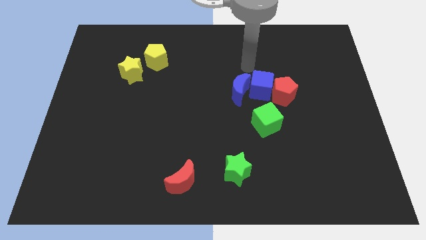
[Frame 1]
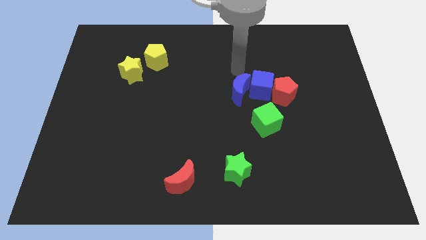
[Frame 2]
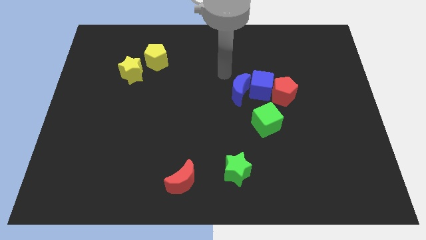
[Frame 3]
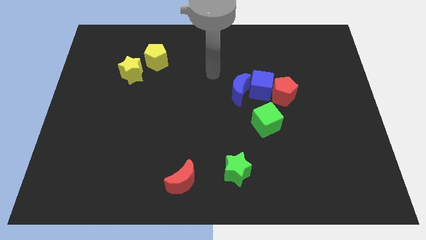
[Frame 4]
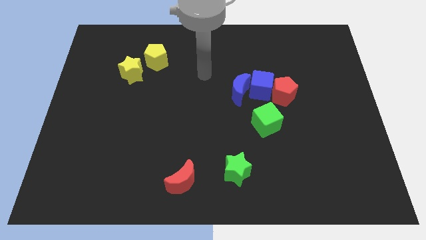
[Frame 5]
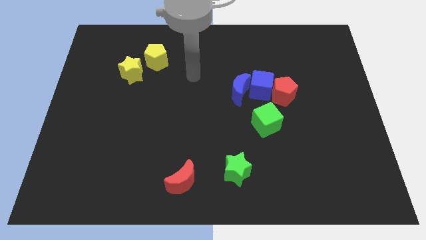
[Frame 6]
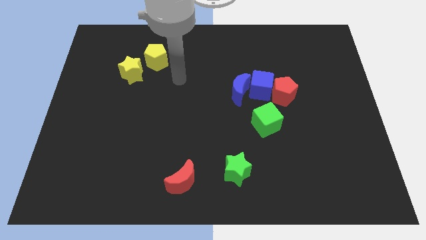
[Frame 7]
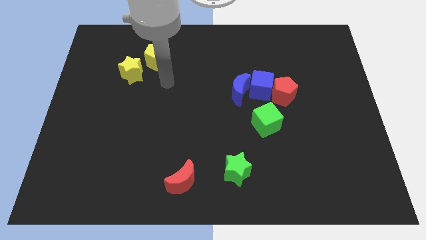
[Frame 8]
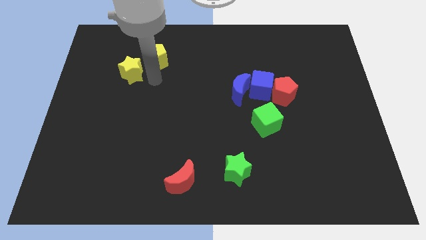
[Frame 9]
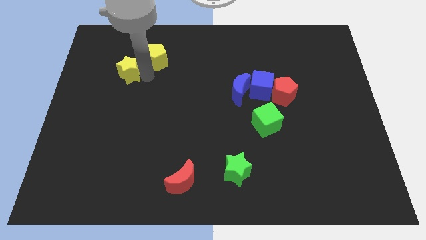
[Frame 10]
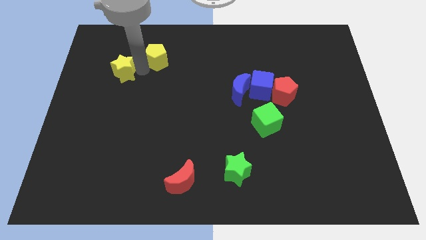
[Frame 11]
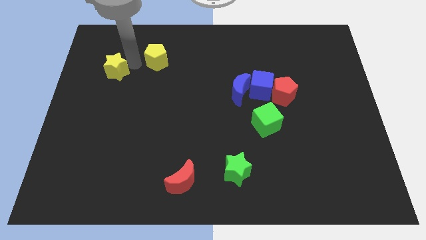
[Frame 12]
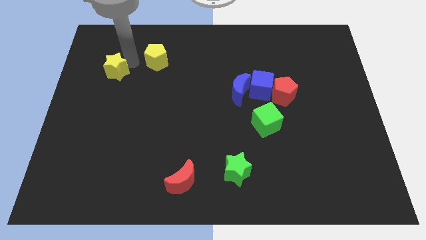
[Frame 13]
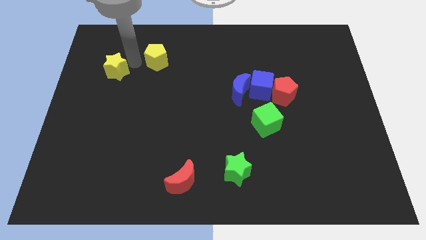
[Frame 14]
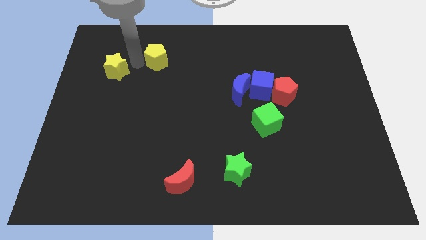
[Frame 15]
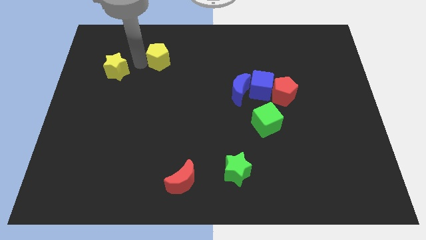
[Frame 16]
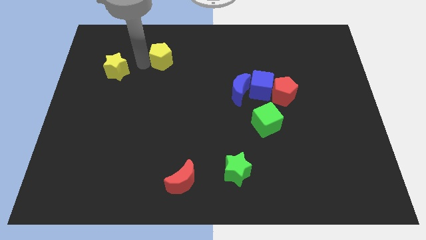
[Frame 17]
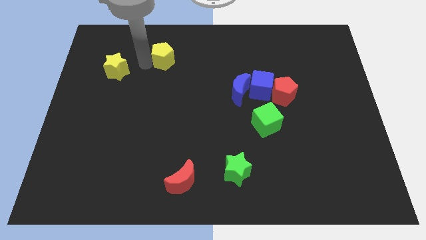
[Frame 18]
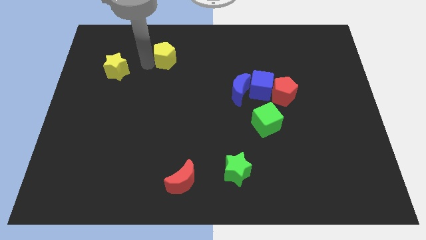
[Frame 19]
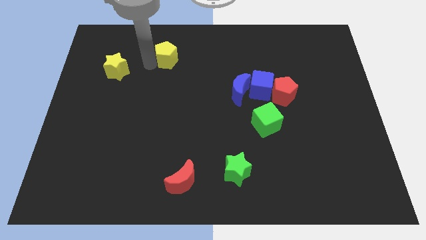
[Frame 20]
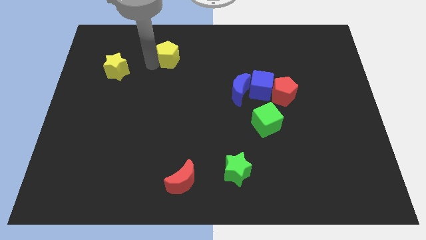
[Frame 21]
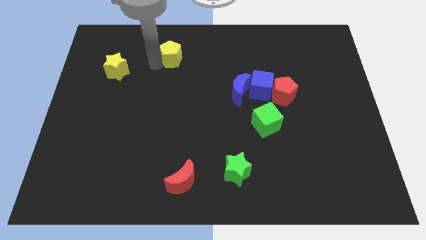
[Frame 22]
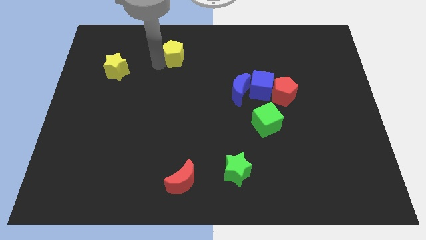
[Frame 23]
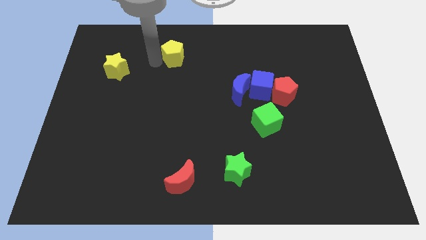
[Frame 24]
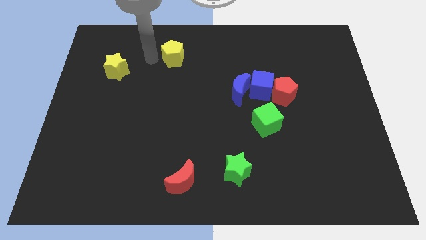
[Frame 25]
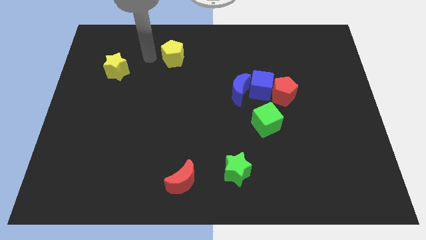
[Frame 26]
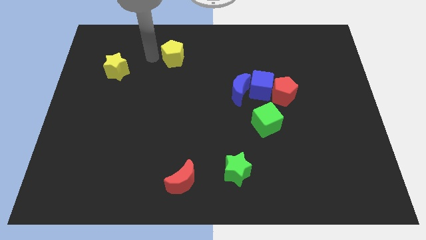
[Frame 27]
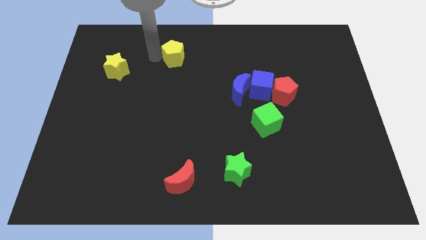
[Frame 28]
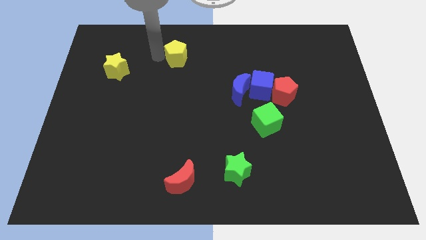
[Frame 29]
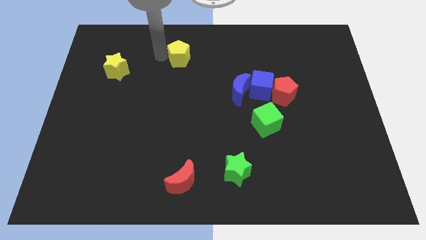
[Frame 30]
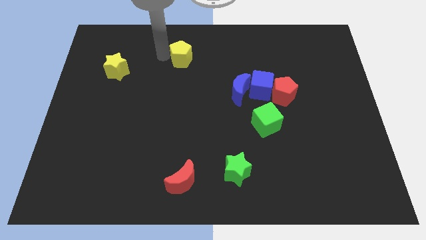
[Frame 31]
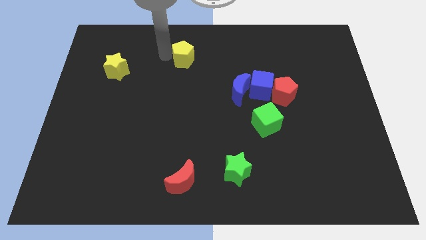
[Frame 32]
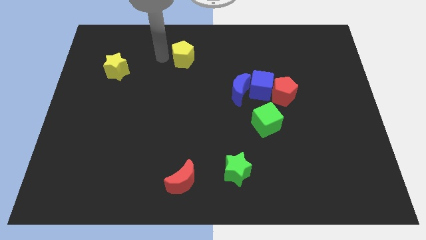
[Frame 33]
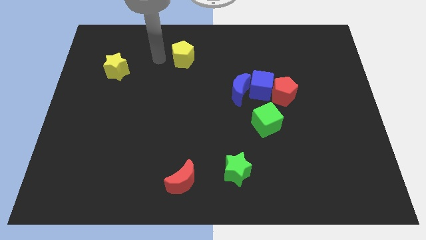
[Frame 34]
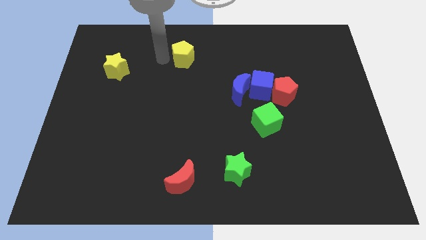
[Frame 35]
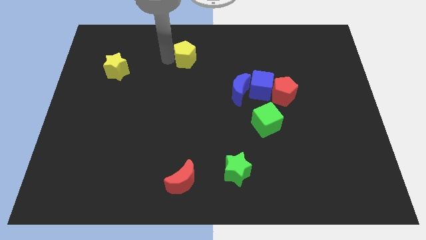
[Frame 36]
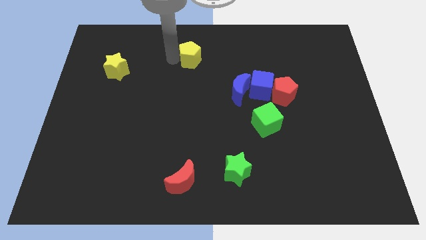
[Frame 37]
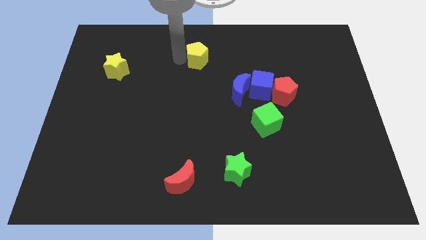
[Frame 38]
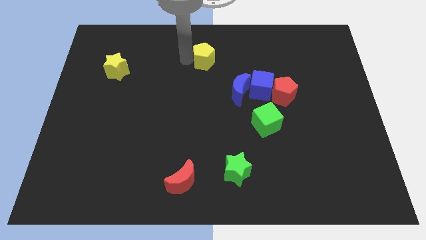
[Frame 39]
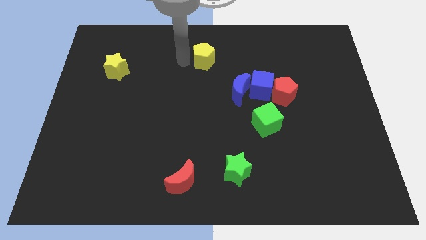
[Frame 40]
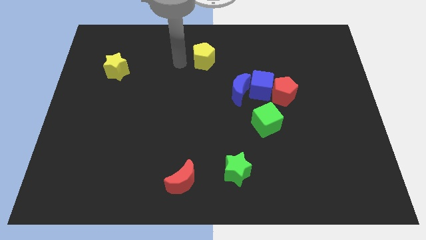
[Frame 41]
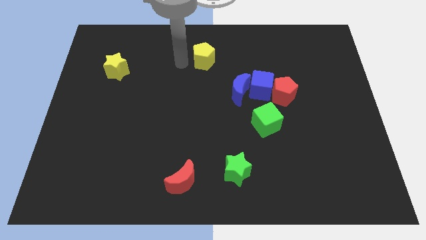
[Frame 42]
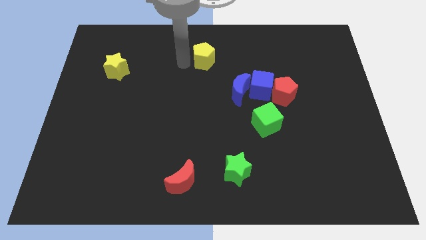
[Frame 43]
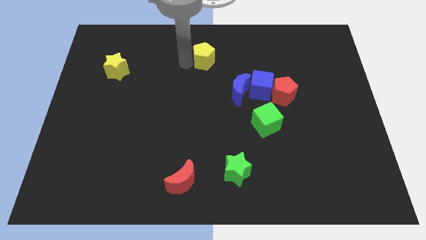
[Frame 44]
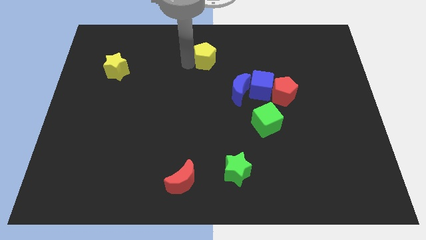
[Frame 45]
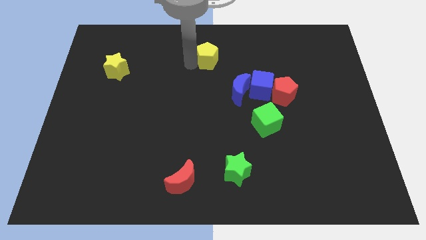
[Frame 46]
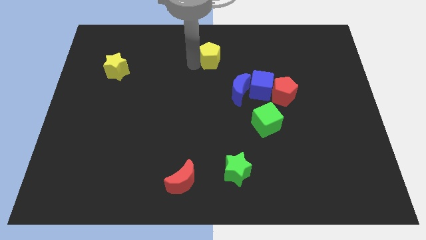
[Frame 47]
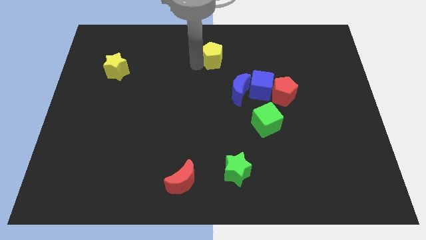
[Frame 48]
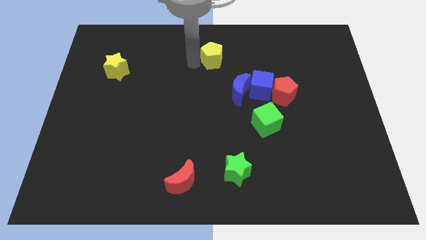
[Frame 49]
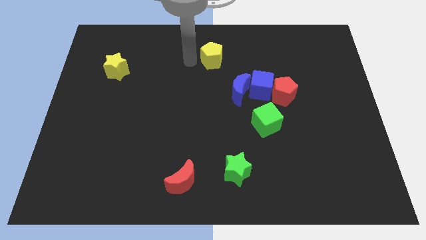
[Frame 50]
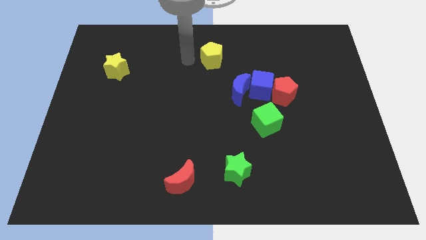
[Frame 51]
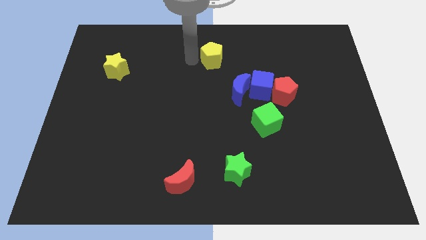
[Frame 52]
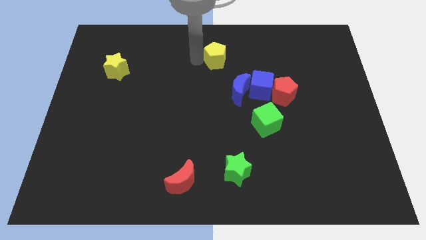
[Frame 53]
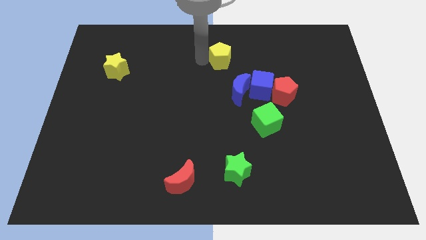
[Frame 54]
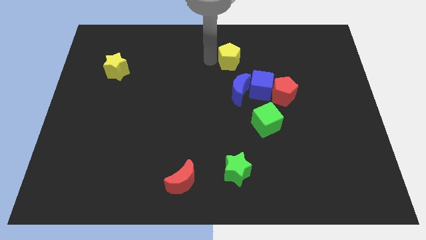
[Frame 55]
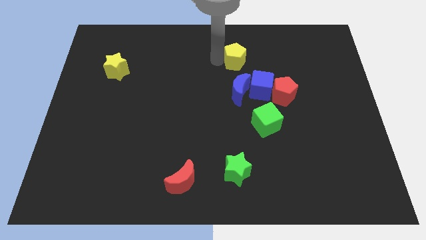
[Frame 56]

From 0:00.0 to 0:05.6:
slide the yellow pentagon right

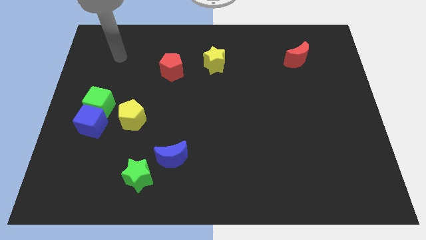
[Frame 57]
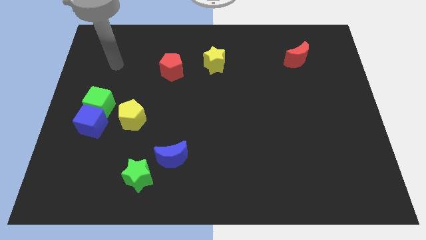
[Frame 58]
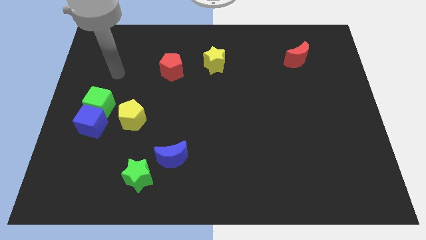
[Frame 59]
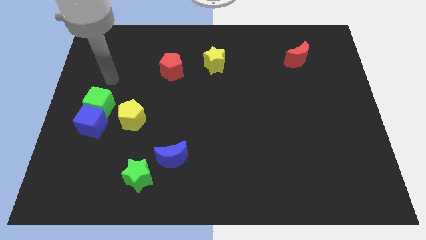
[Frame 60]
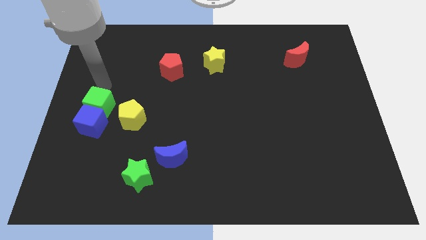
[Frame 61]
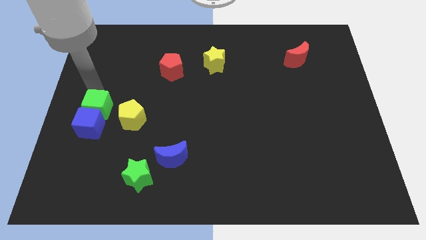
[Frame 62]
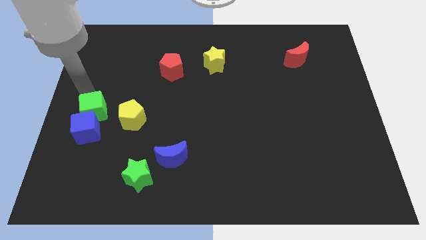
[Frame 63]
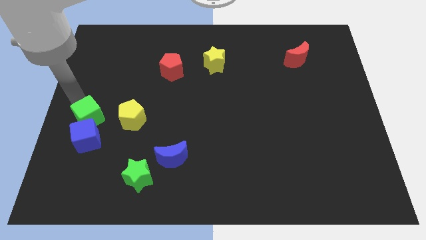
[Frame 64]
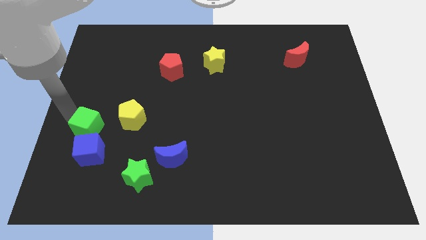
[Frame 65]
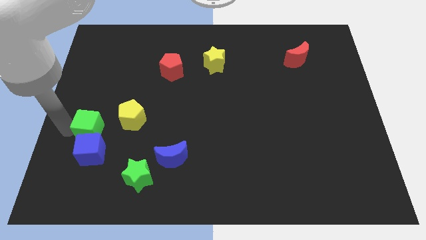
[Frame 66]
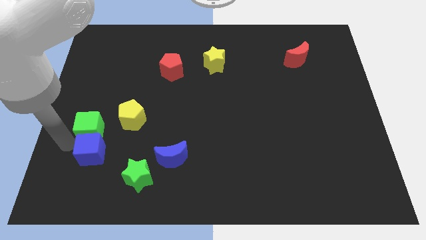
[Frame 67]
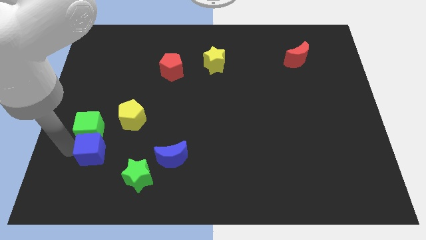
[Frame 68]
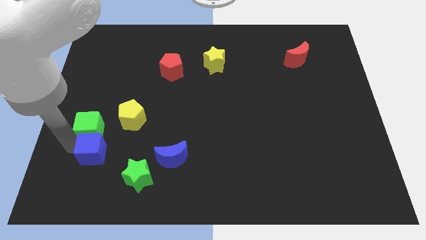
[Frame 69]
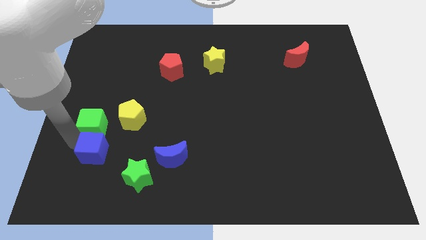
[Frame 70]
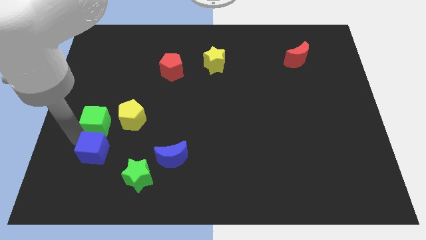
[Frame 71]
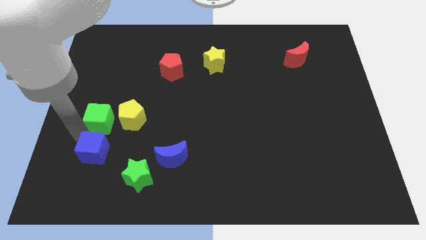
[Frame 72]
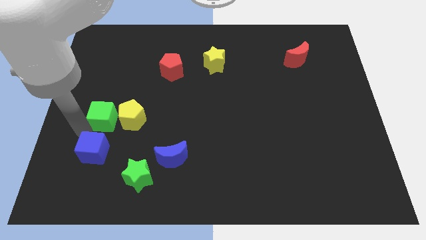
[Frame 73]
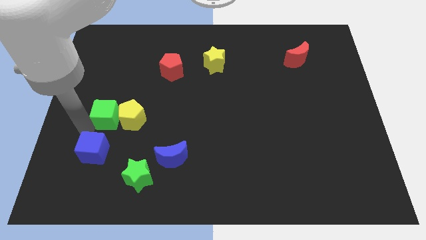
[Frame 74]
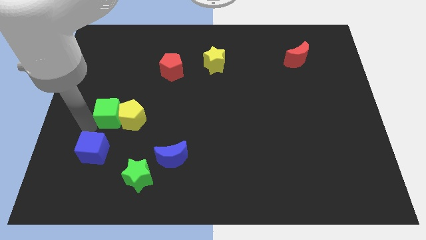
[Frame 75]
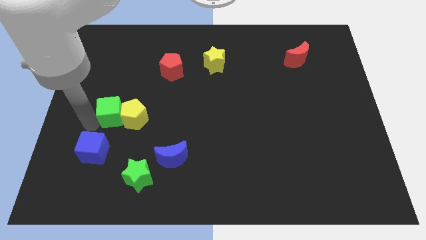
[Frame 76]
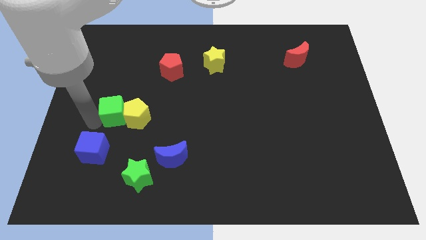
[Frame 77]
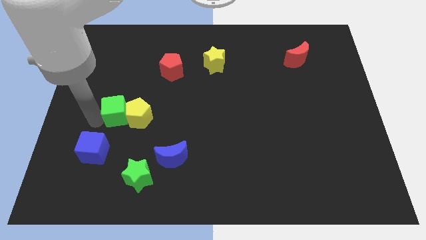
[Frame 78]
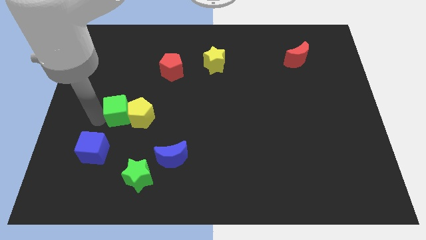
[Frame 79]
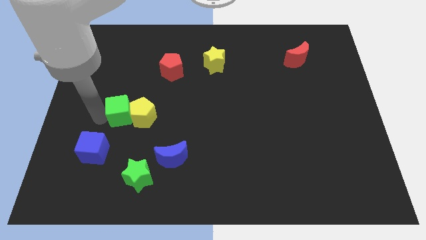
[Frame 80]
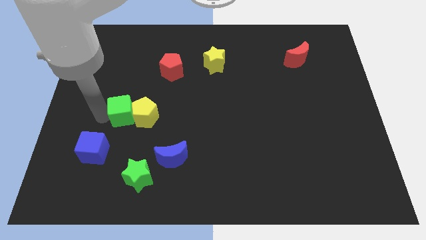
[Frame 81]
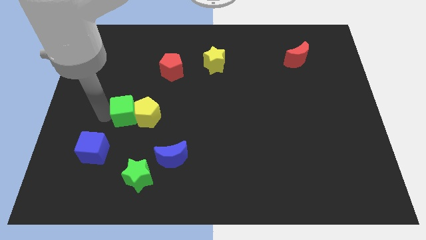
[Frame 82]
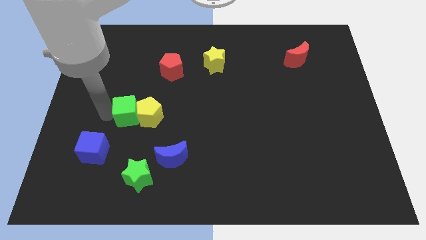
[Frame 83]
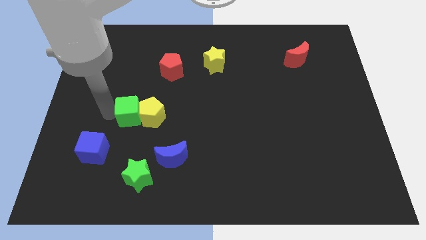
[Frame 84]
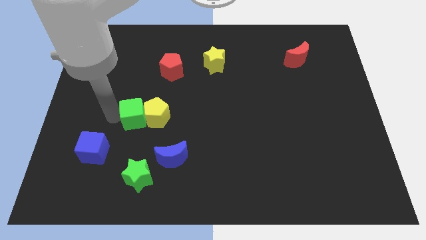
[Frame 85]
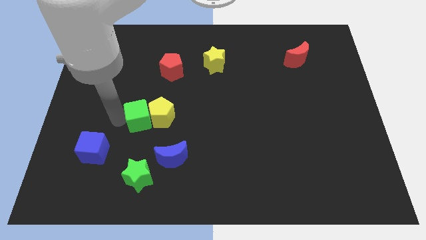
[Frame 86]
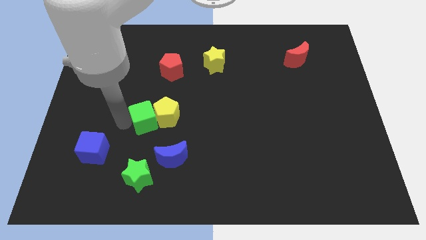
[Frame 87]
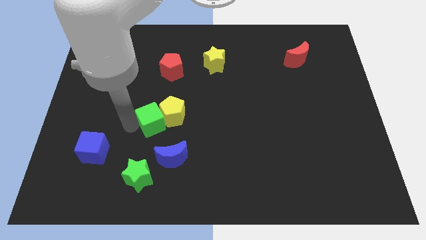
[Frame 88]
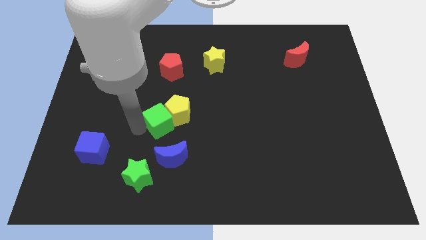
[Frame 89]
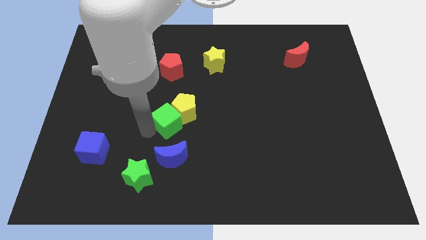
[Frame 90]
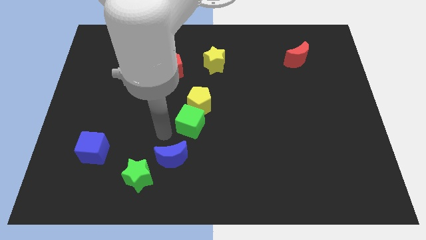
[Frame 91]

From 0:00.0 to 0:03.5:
move the green cube to the right
